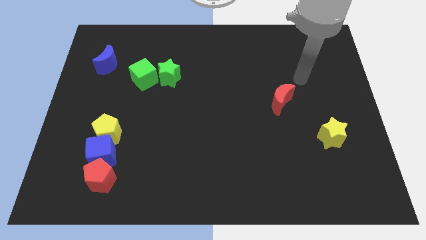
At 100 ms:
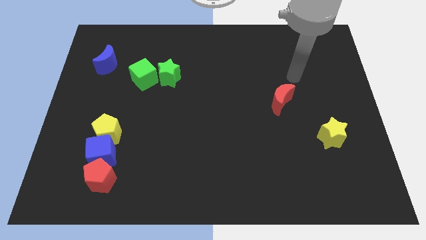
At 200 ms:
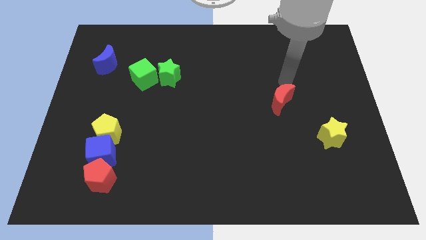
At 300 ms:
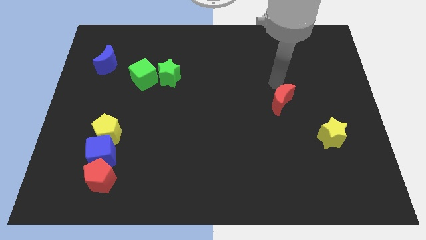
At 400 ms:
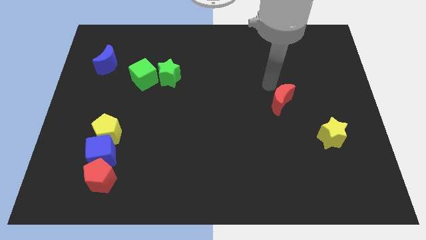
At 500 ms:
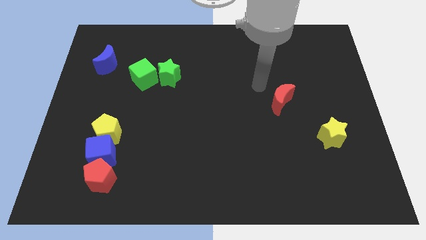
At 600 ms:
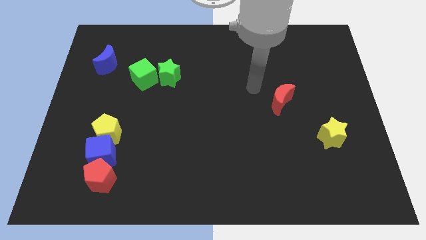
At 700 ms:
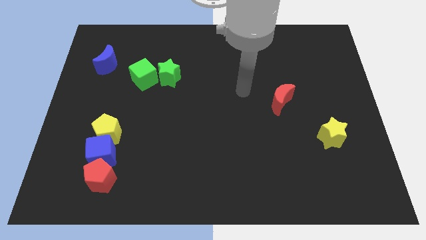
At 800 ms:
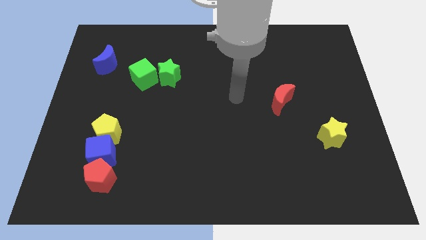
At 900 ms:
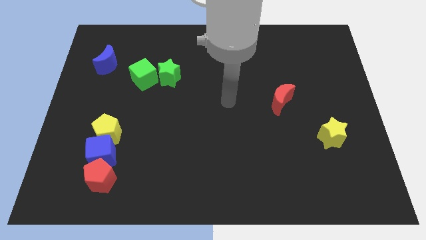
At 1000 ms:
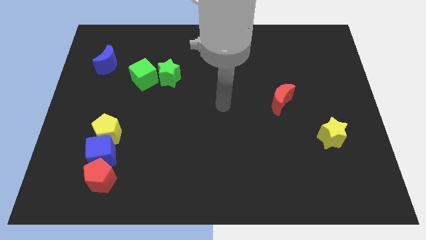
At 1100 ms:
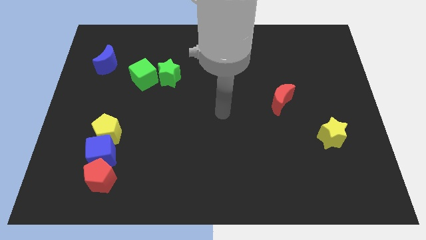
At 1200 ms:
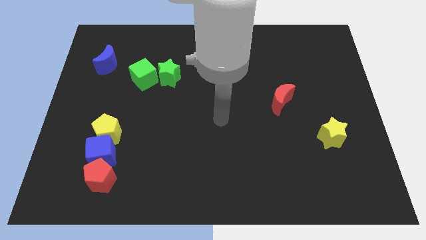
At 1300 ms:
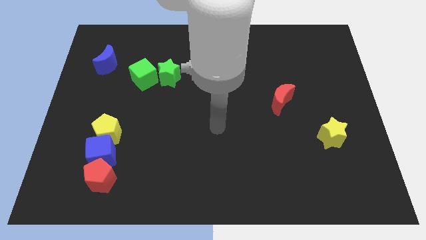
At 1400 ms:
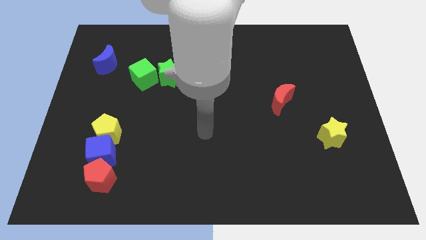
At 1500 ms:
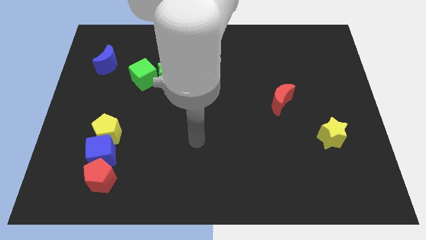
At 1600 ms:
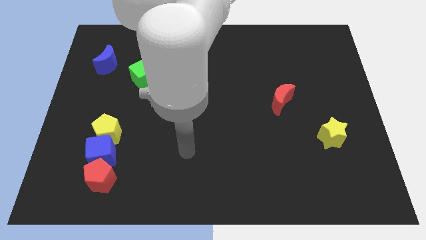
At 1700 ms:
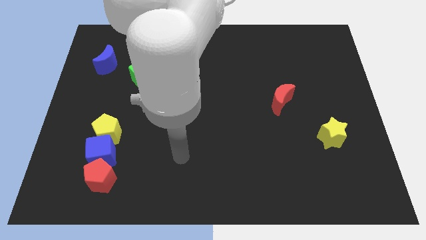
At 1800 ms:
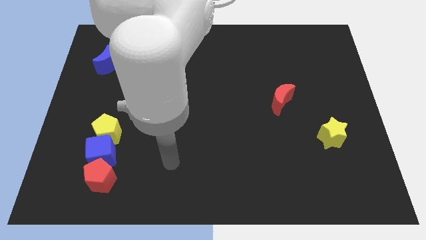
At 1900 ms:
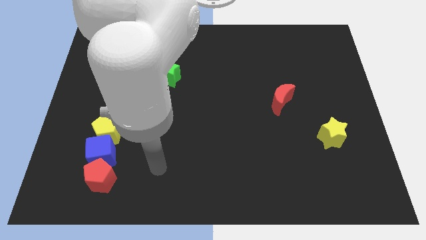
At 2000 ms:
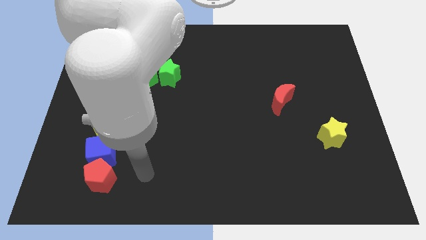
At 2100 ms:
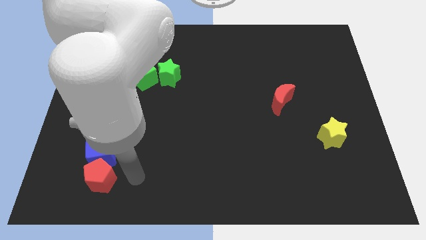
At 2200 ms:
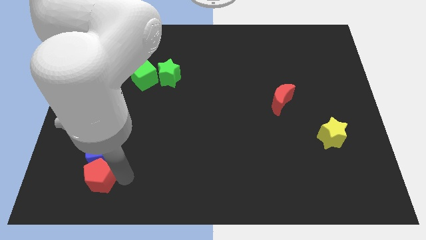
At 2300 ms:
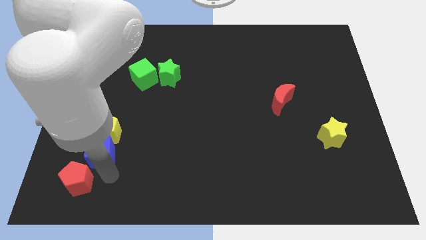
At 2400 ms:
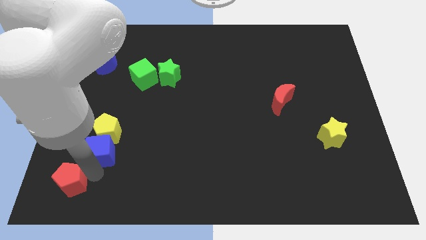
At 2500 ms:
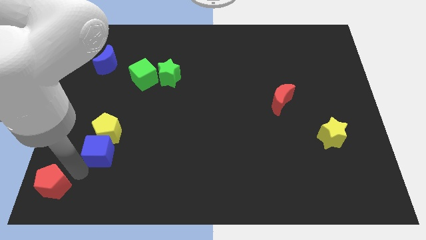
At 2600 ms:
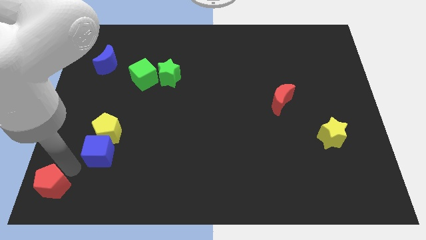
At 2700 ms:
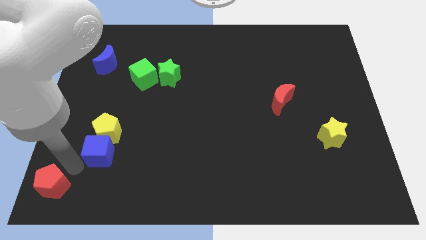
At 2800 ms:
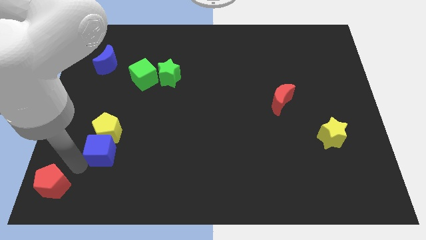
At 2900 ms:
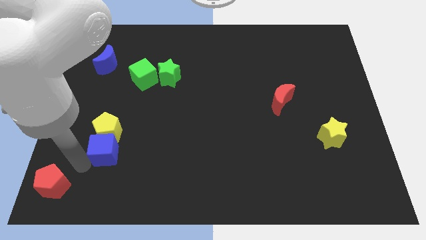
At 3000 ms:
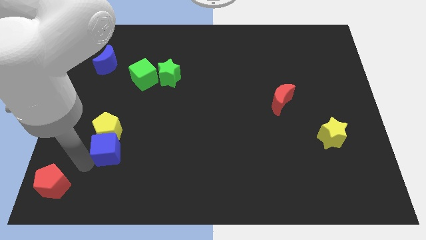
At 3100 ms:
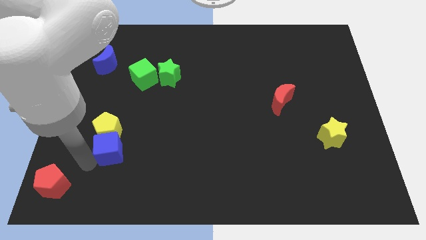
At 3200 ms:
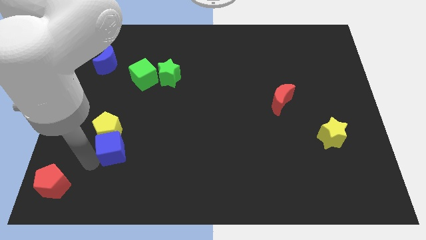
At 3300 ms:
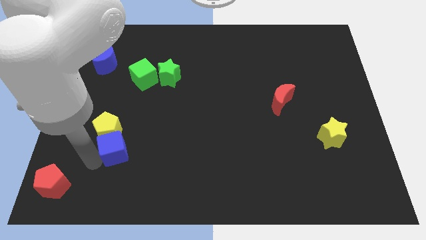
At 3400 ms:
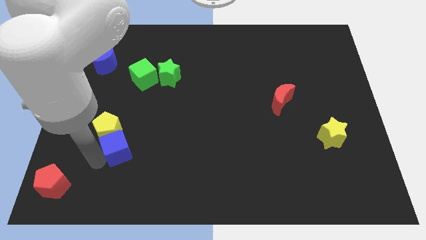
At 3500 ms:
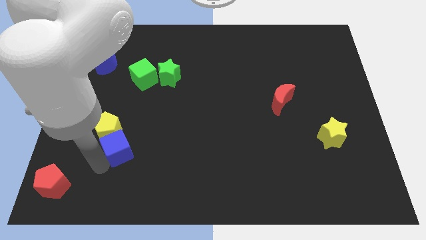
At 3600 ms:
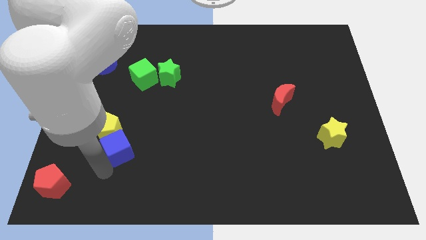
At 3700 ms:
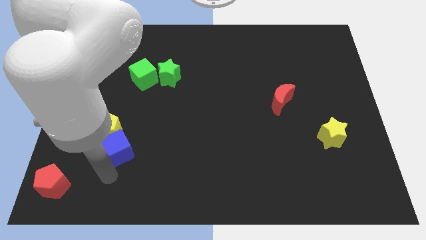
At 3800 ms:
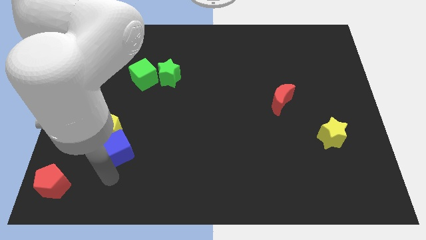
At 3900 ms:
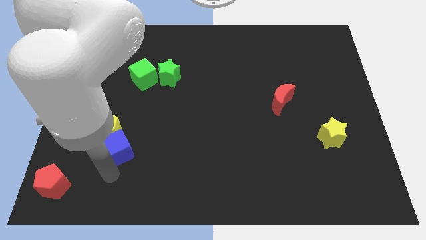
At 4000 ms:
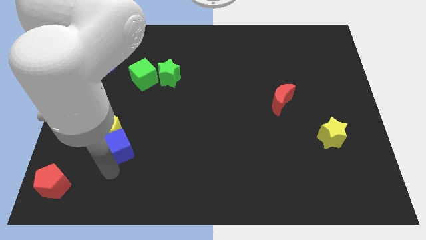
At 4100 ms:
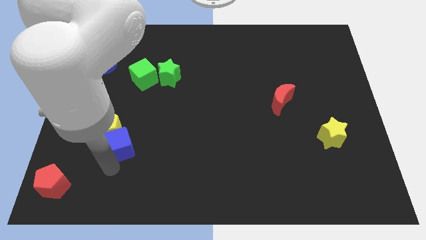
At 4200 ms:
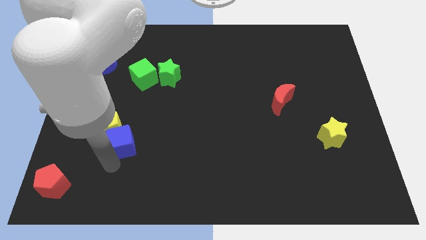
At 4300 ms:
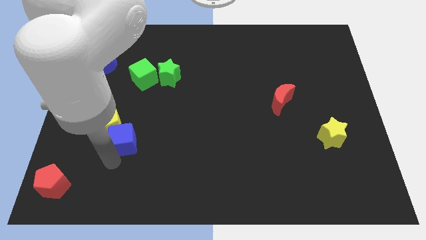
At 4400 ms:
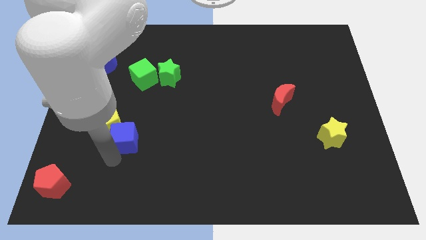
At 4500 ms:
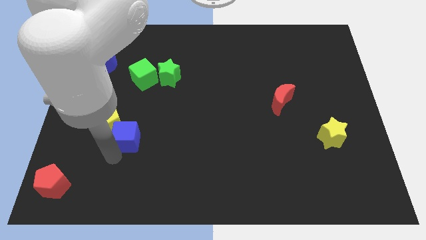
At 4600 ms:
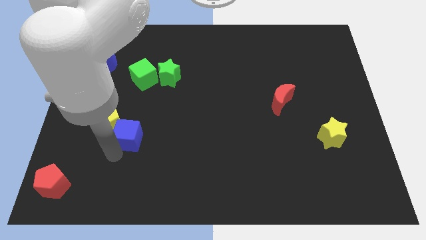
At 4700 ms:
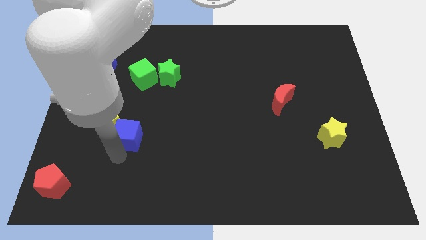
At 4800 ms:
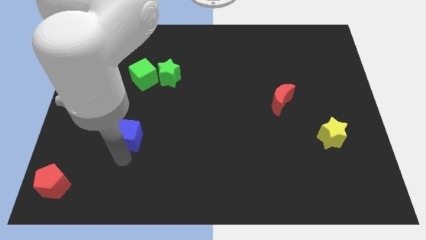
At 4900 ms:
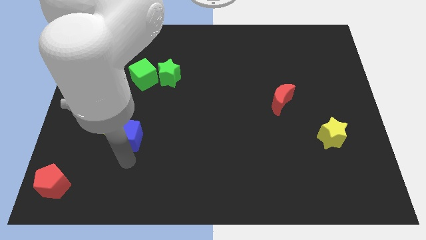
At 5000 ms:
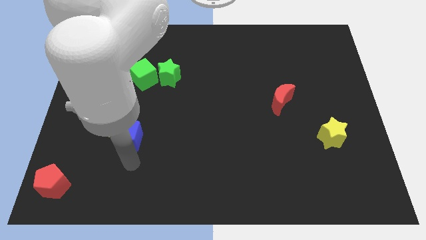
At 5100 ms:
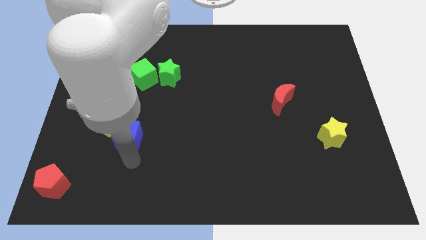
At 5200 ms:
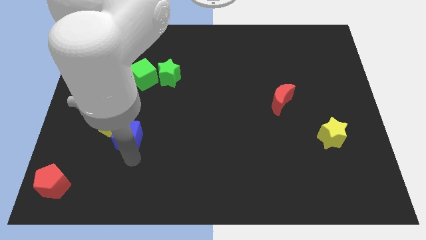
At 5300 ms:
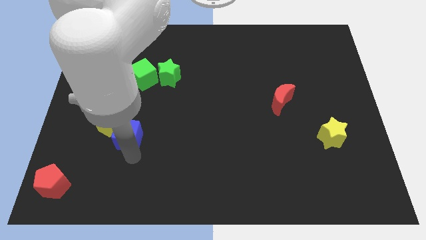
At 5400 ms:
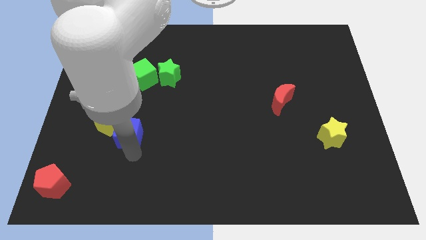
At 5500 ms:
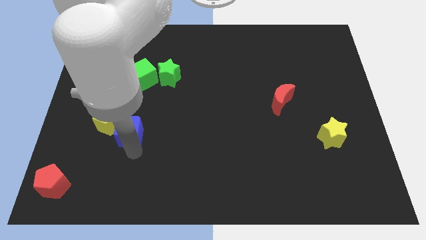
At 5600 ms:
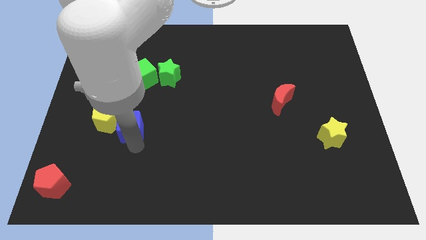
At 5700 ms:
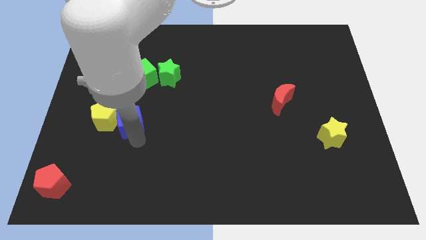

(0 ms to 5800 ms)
slide the blue cube upwards a little

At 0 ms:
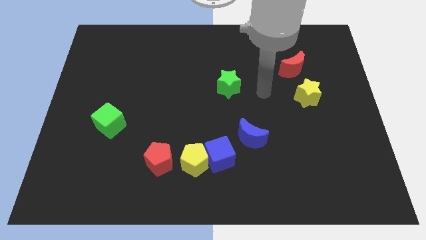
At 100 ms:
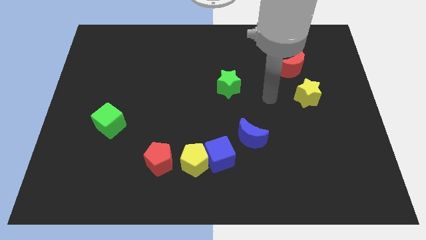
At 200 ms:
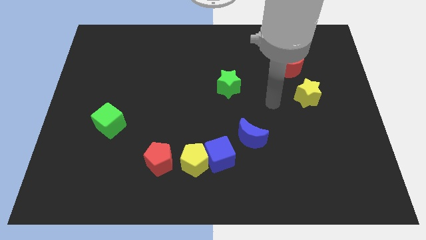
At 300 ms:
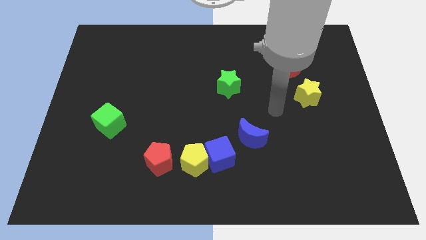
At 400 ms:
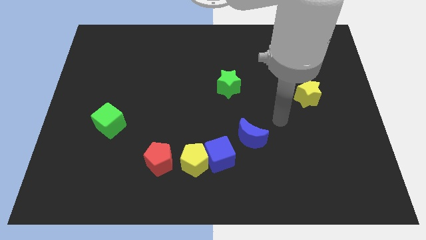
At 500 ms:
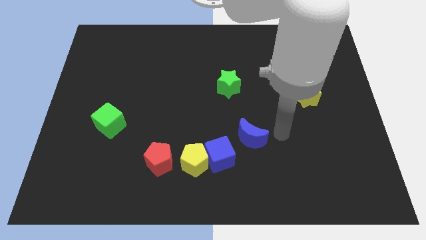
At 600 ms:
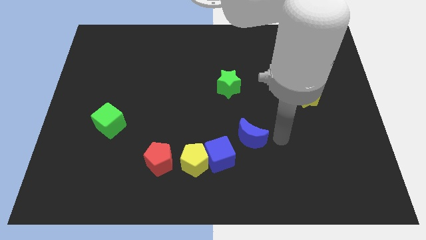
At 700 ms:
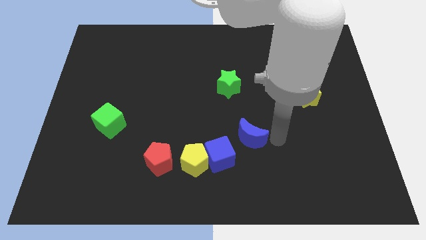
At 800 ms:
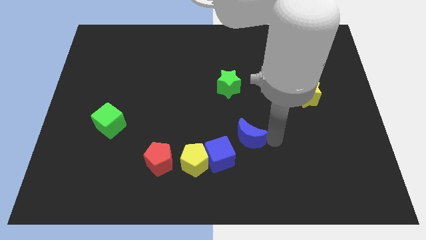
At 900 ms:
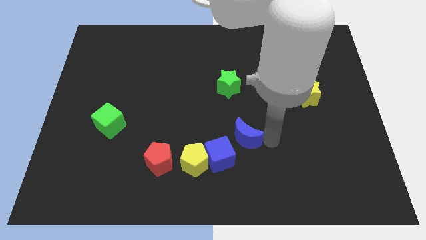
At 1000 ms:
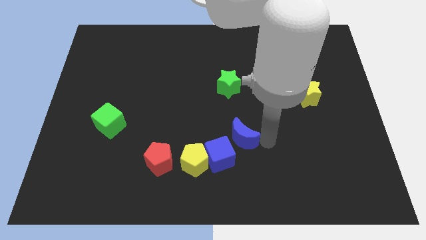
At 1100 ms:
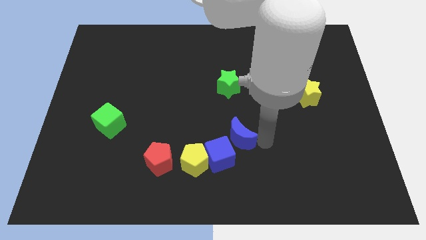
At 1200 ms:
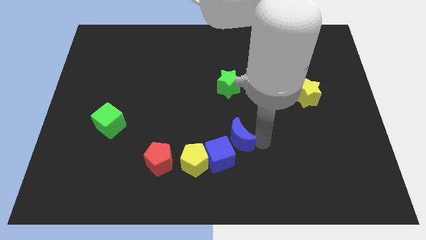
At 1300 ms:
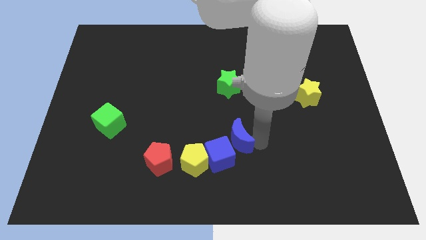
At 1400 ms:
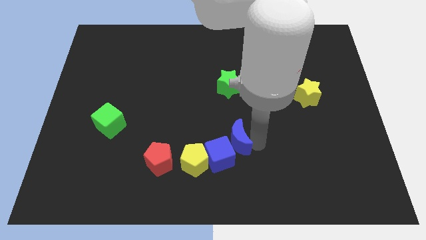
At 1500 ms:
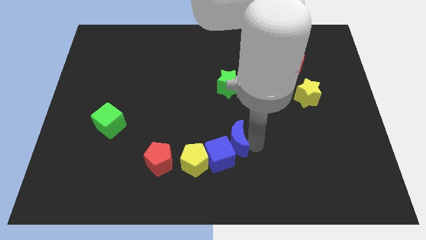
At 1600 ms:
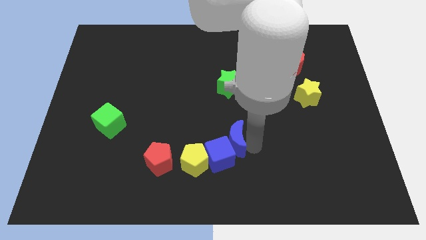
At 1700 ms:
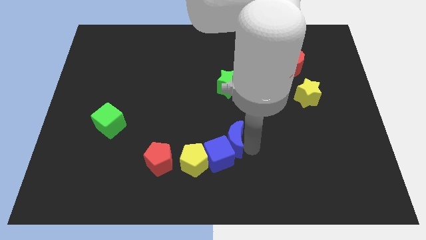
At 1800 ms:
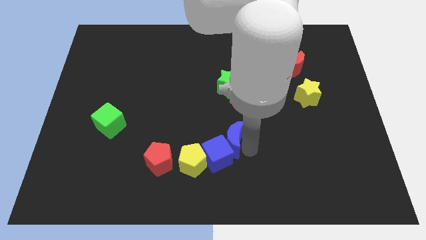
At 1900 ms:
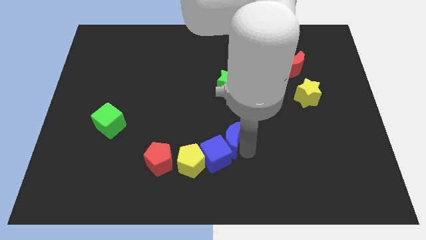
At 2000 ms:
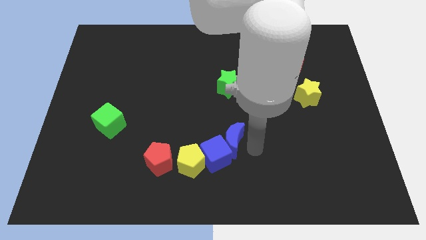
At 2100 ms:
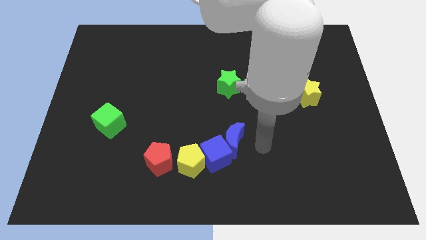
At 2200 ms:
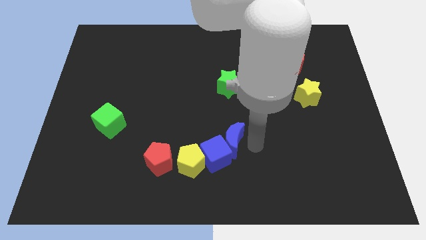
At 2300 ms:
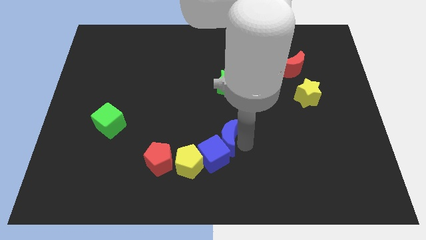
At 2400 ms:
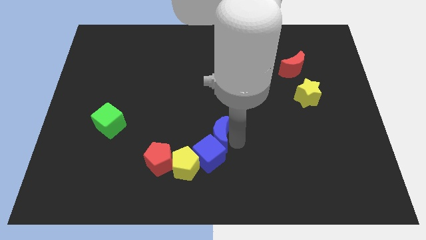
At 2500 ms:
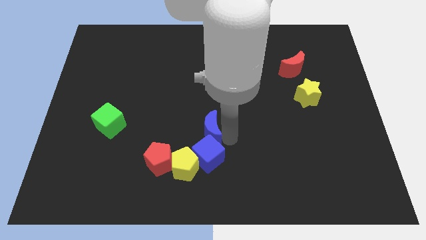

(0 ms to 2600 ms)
slide the blue moon left a little
